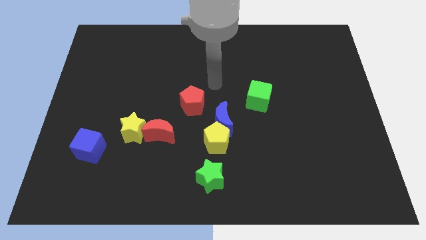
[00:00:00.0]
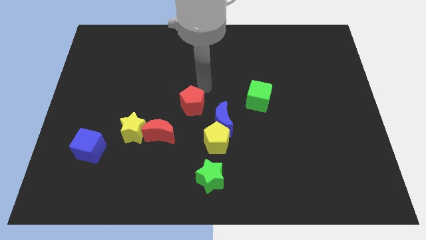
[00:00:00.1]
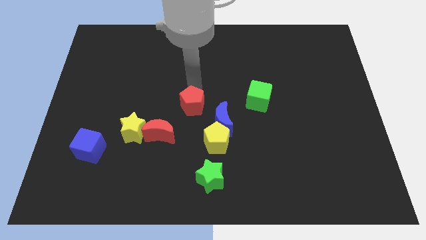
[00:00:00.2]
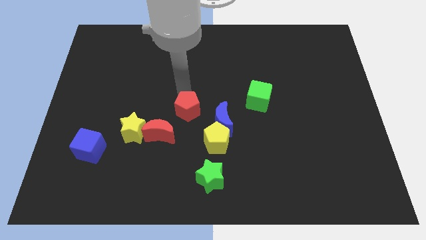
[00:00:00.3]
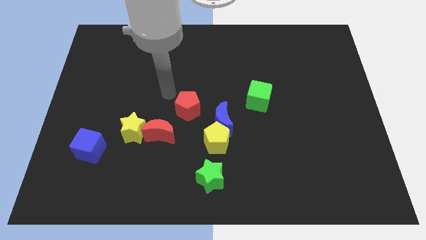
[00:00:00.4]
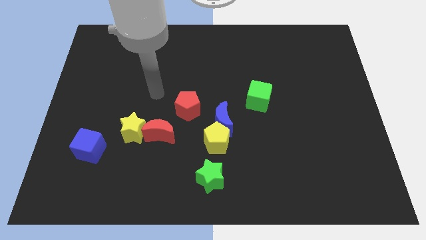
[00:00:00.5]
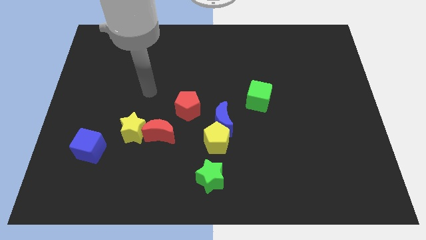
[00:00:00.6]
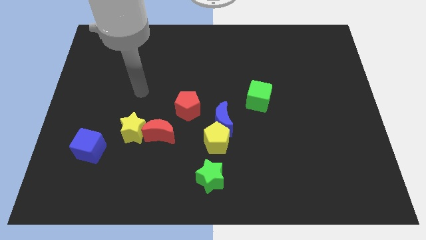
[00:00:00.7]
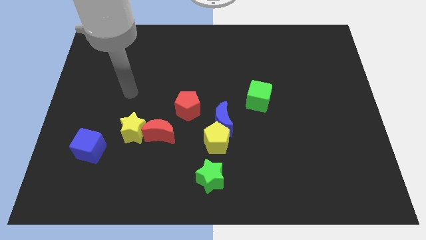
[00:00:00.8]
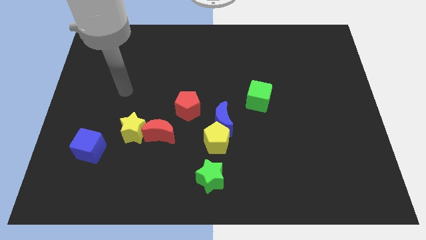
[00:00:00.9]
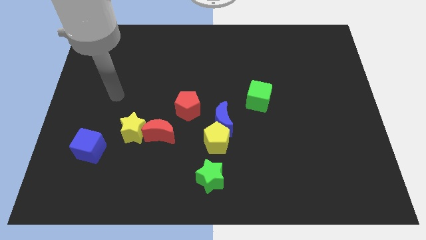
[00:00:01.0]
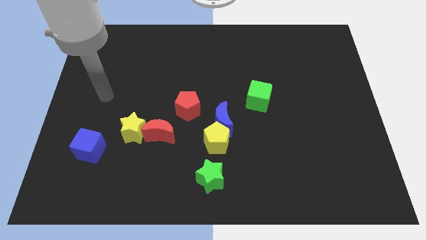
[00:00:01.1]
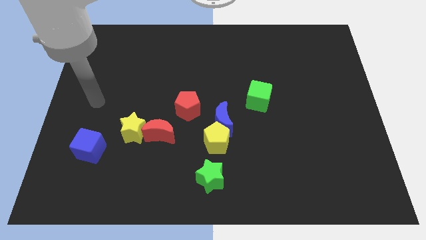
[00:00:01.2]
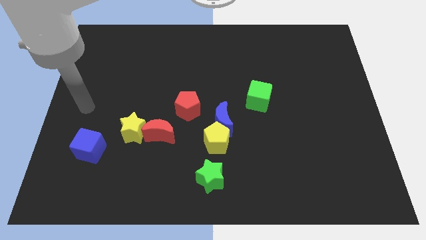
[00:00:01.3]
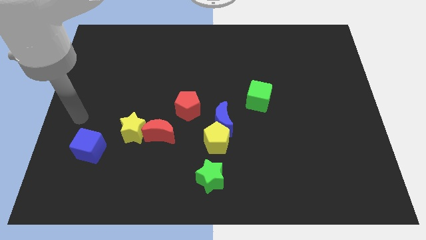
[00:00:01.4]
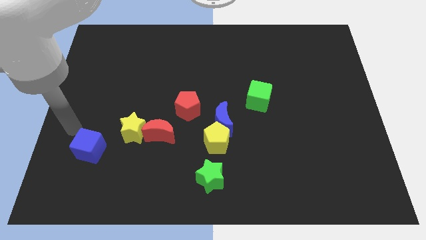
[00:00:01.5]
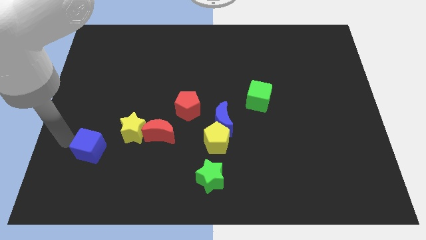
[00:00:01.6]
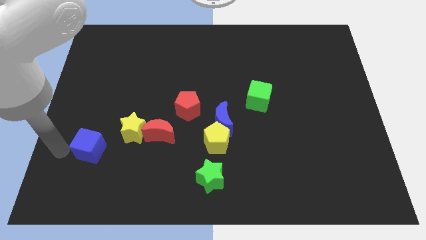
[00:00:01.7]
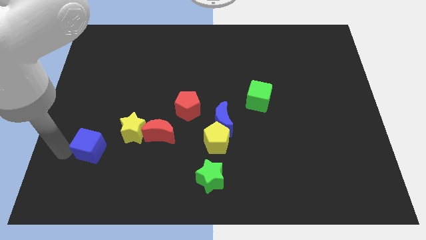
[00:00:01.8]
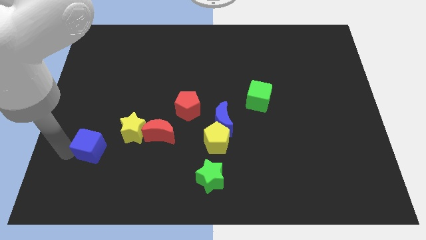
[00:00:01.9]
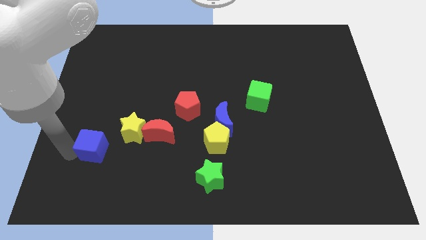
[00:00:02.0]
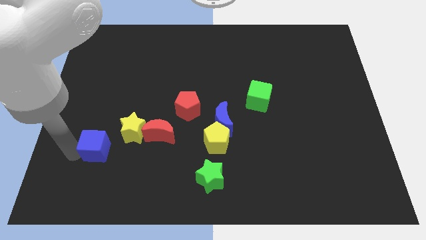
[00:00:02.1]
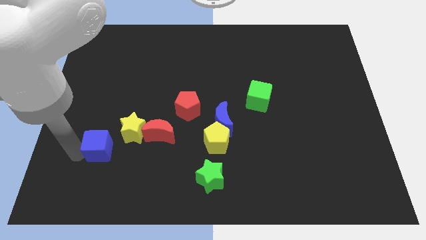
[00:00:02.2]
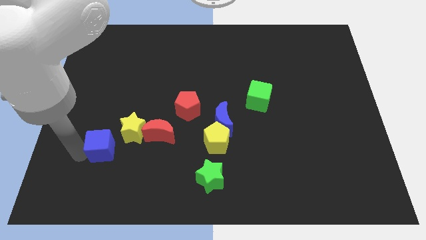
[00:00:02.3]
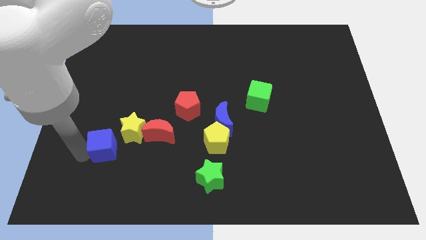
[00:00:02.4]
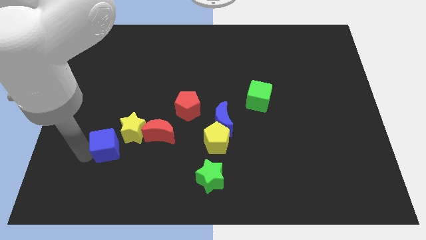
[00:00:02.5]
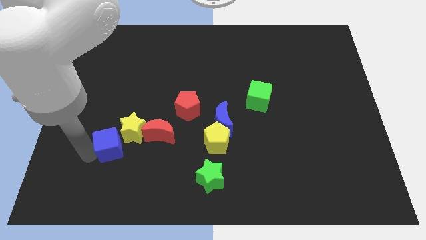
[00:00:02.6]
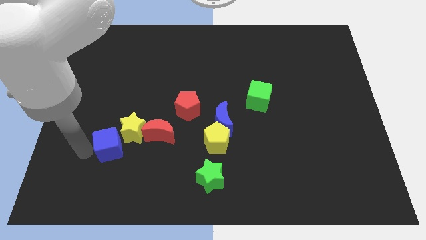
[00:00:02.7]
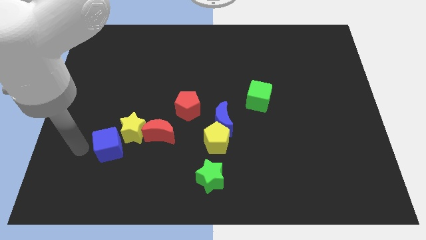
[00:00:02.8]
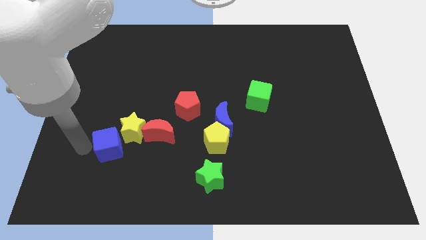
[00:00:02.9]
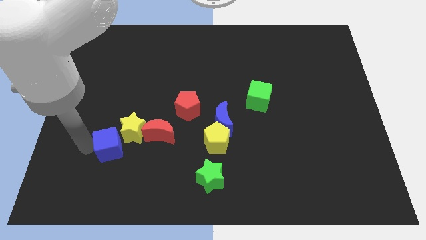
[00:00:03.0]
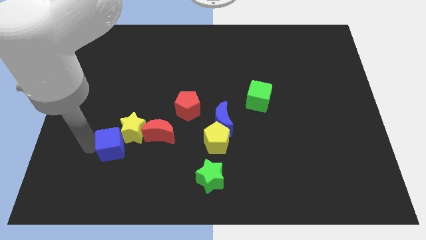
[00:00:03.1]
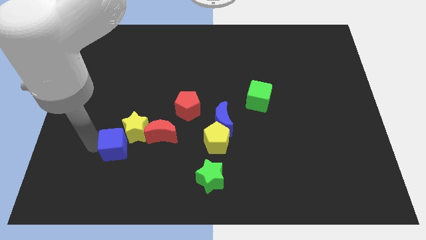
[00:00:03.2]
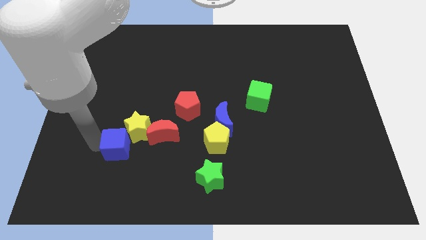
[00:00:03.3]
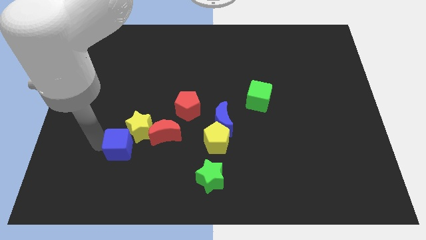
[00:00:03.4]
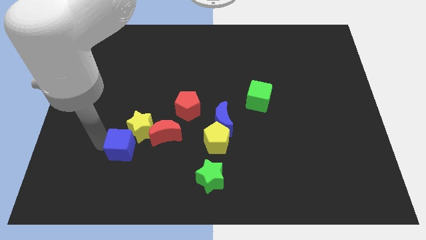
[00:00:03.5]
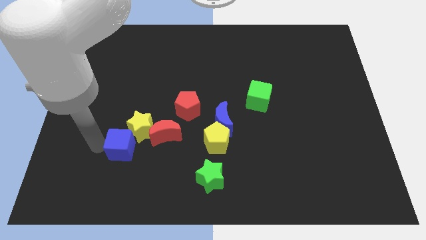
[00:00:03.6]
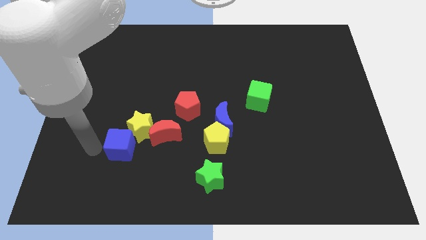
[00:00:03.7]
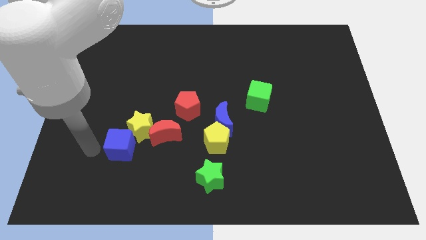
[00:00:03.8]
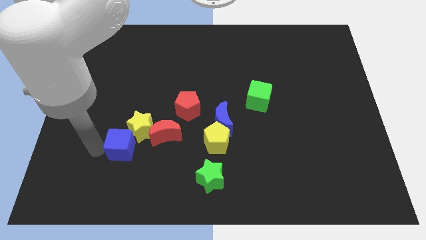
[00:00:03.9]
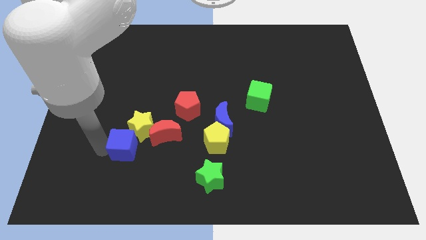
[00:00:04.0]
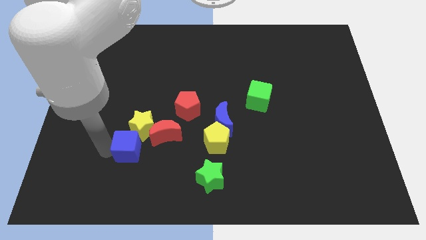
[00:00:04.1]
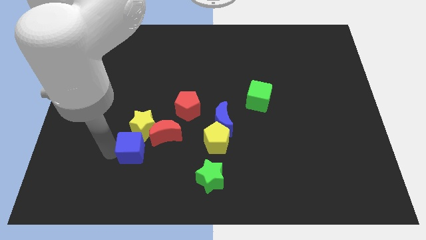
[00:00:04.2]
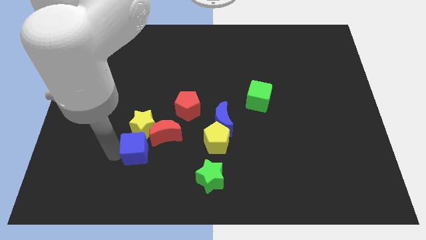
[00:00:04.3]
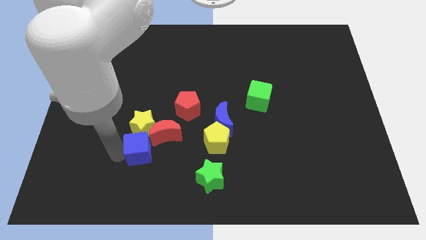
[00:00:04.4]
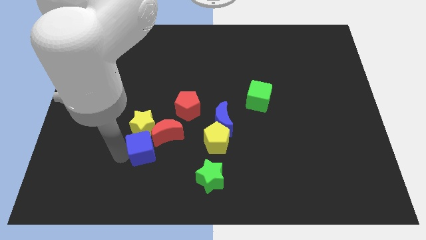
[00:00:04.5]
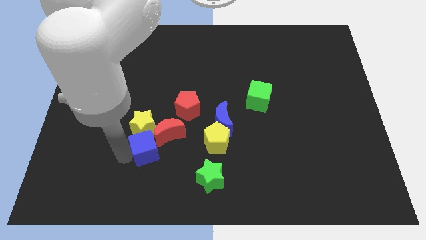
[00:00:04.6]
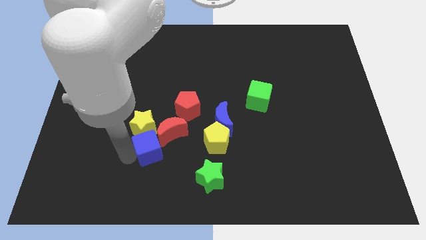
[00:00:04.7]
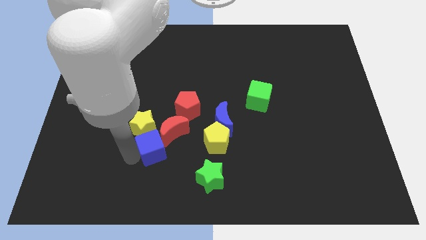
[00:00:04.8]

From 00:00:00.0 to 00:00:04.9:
slide the blue cube towards the red moon

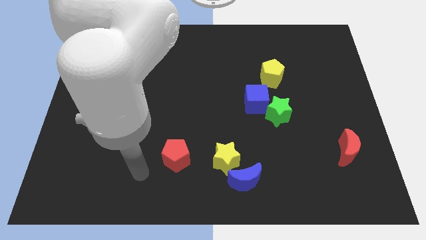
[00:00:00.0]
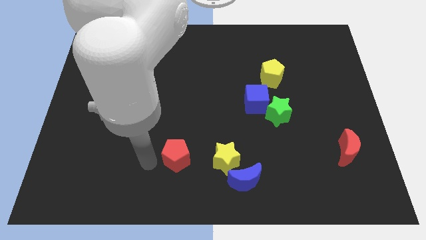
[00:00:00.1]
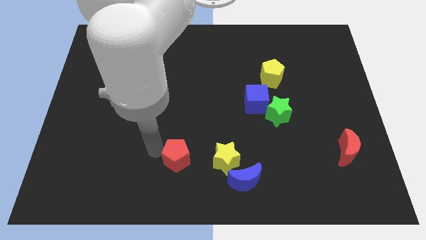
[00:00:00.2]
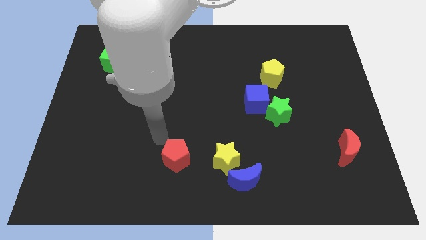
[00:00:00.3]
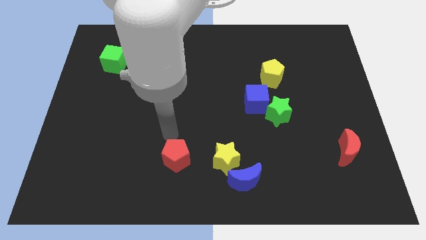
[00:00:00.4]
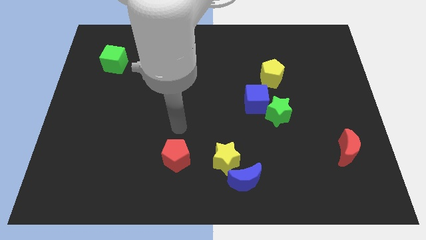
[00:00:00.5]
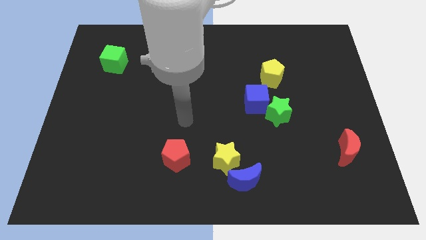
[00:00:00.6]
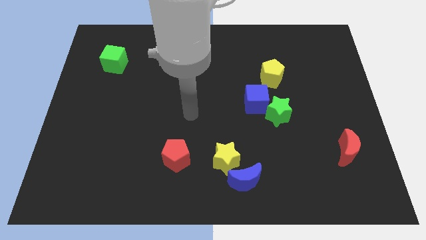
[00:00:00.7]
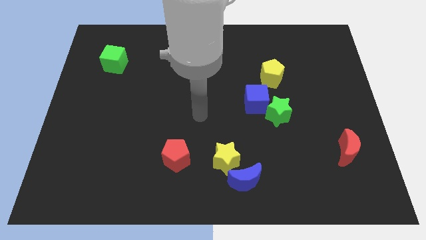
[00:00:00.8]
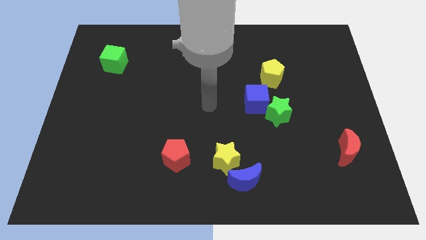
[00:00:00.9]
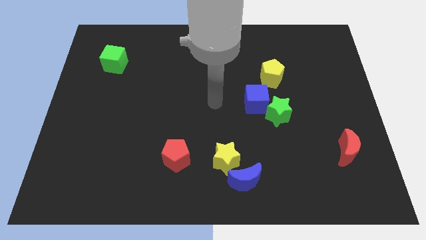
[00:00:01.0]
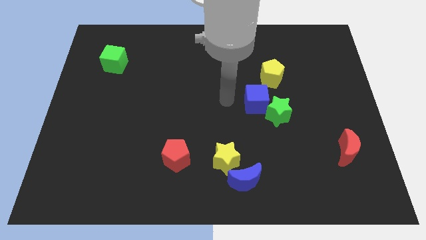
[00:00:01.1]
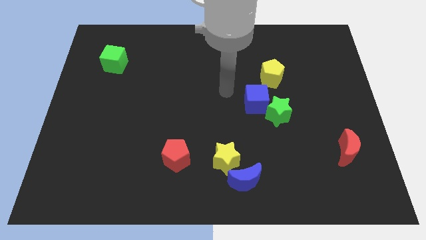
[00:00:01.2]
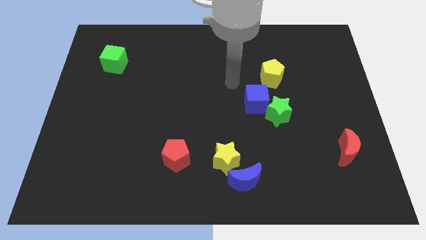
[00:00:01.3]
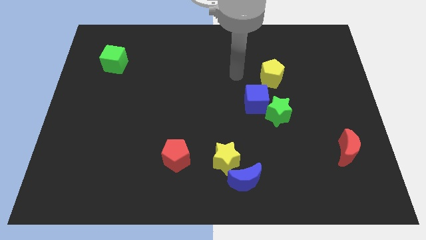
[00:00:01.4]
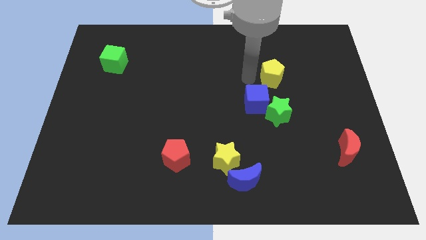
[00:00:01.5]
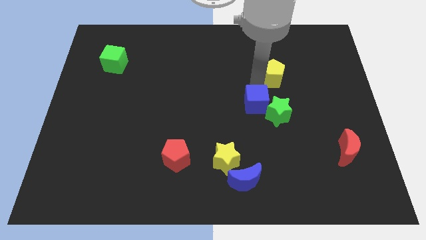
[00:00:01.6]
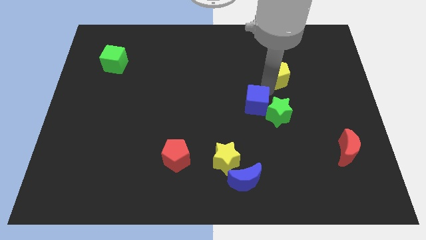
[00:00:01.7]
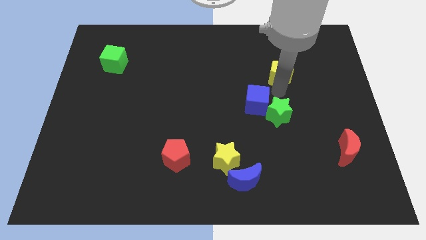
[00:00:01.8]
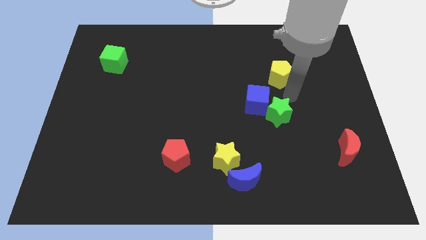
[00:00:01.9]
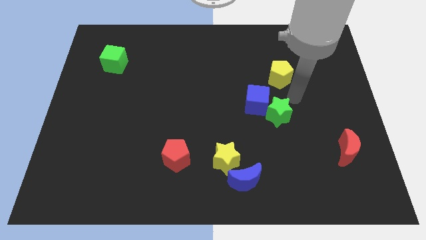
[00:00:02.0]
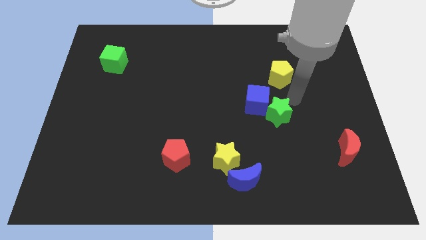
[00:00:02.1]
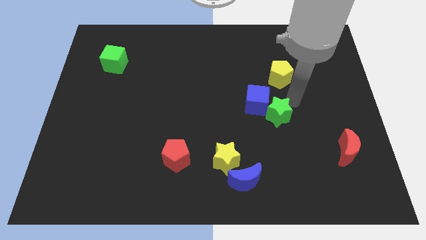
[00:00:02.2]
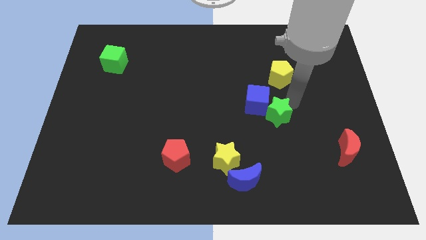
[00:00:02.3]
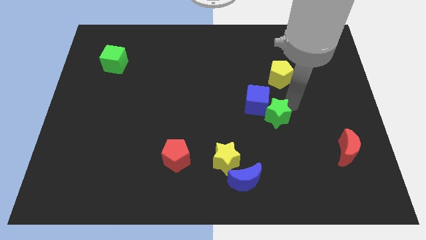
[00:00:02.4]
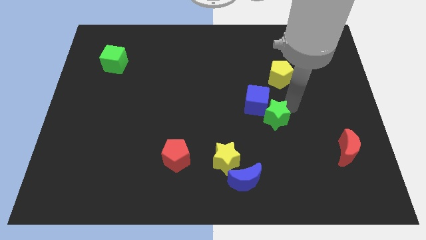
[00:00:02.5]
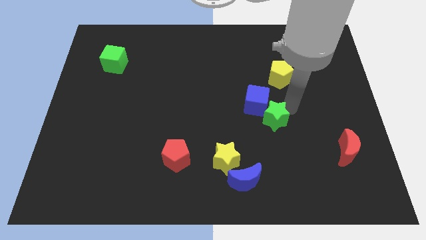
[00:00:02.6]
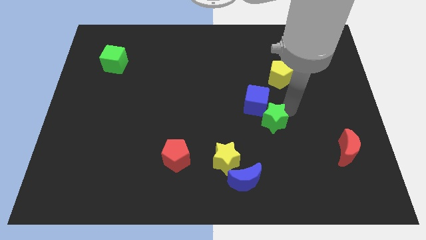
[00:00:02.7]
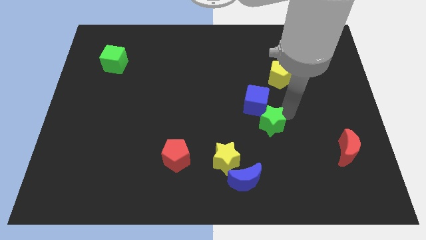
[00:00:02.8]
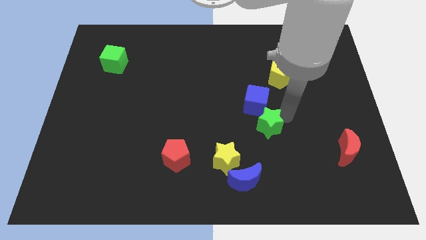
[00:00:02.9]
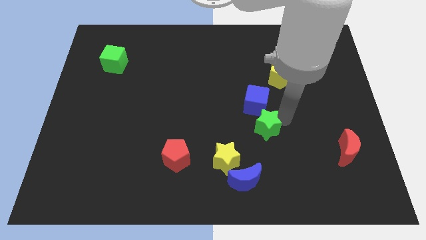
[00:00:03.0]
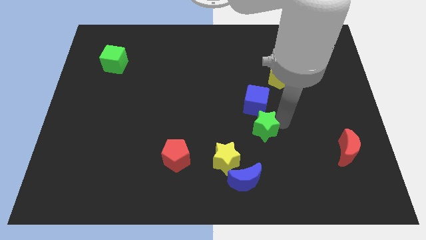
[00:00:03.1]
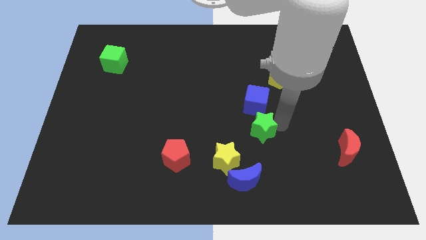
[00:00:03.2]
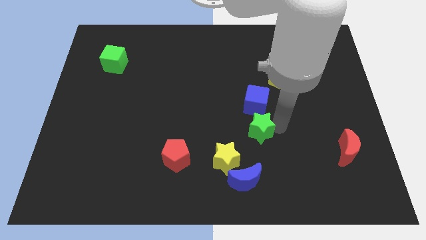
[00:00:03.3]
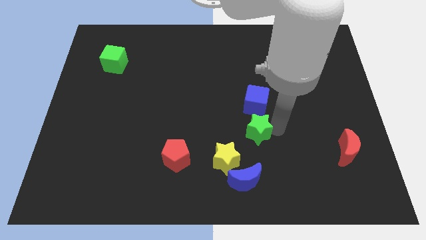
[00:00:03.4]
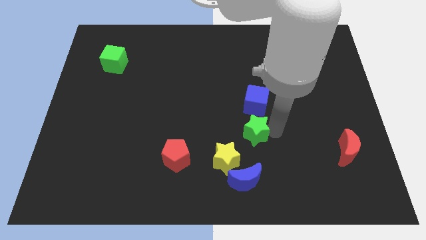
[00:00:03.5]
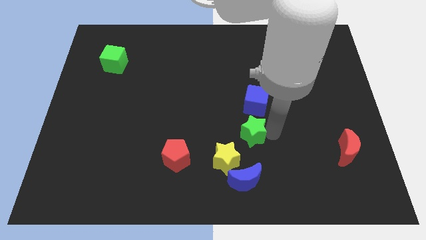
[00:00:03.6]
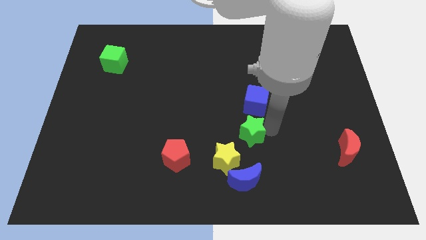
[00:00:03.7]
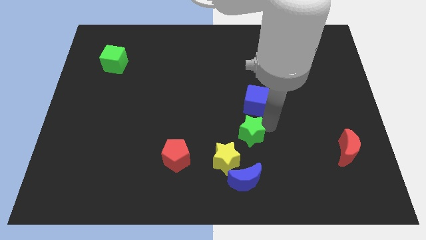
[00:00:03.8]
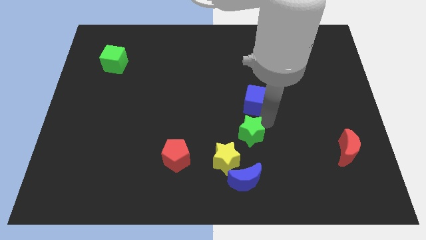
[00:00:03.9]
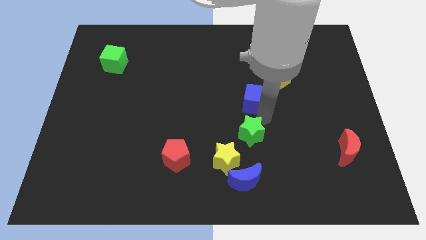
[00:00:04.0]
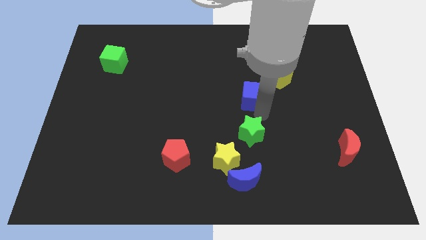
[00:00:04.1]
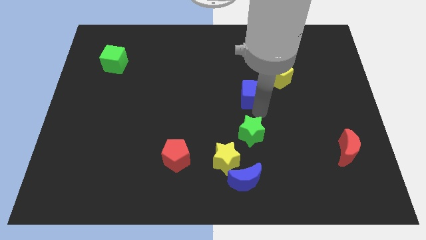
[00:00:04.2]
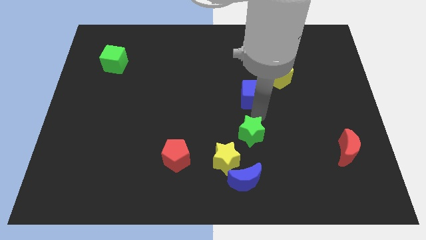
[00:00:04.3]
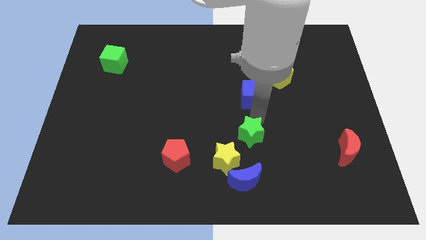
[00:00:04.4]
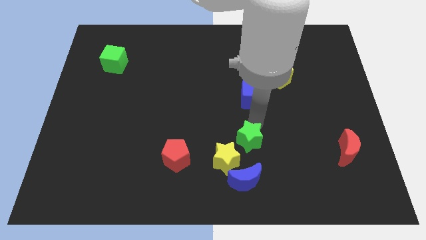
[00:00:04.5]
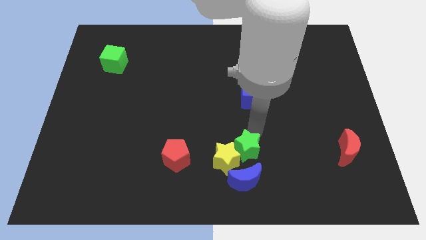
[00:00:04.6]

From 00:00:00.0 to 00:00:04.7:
slide the green star towards the yellow star
